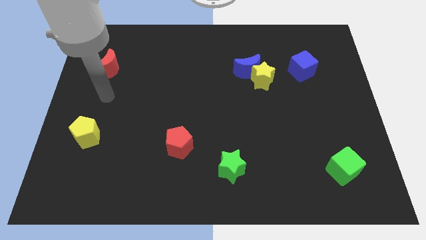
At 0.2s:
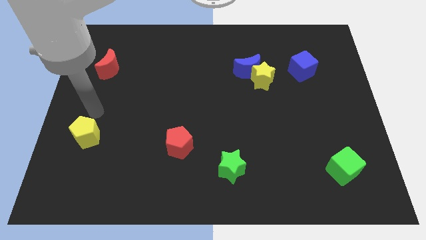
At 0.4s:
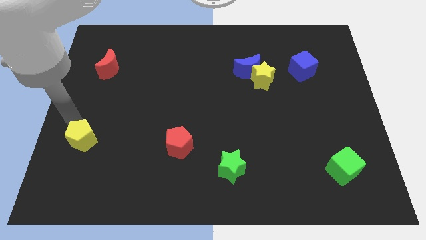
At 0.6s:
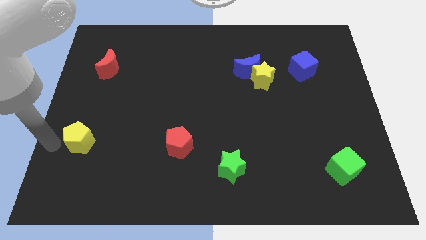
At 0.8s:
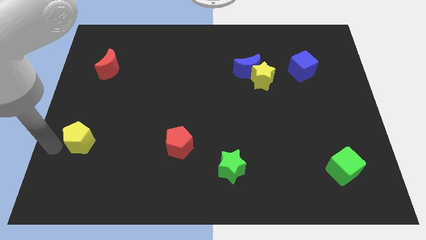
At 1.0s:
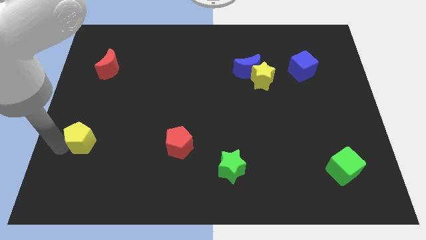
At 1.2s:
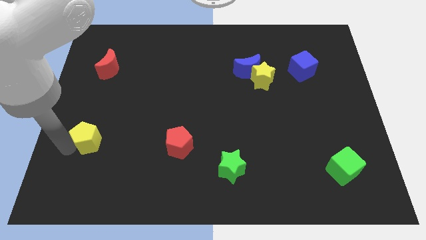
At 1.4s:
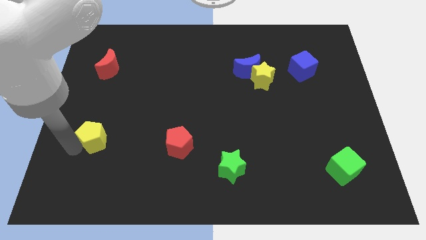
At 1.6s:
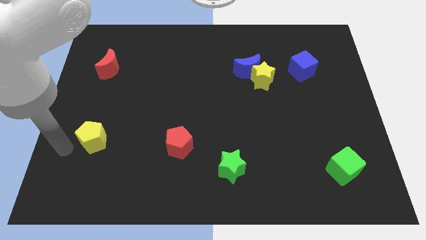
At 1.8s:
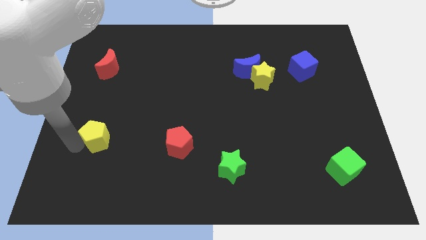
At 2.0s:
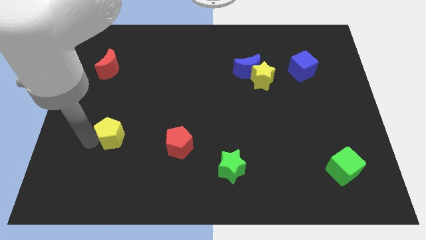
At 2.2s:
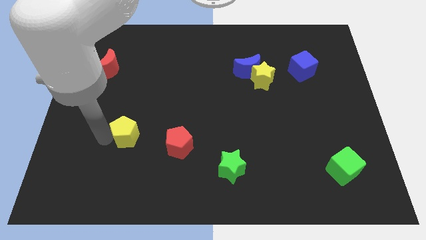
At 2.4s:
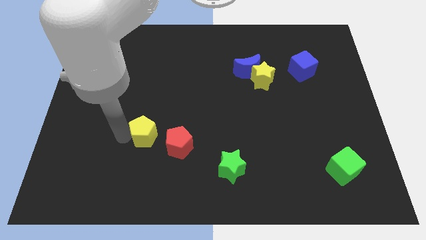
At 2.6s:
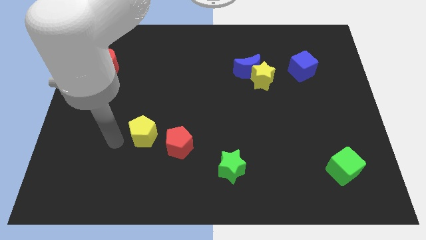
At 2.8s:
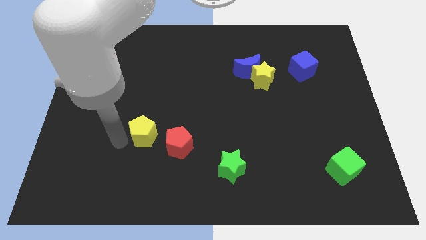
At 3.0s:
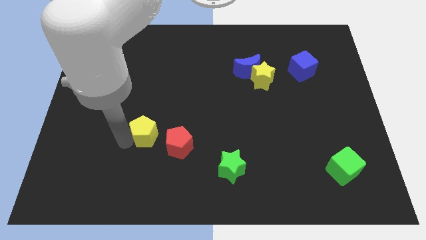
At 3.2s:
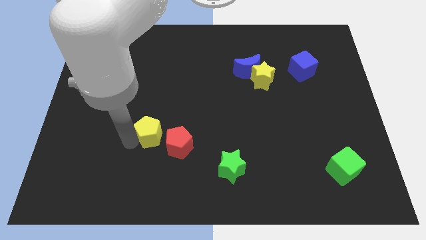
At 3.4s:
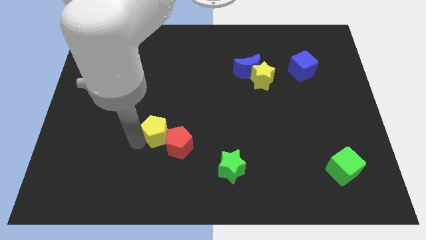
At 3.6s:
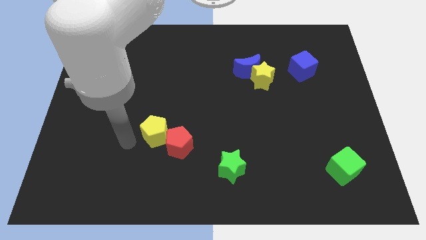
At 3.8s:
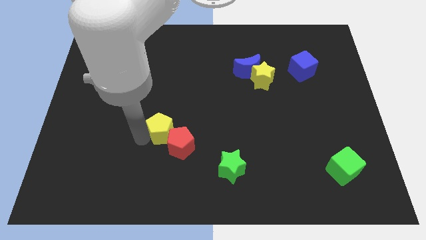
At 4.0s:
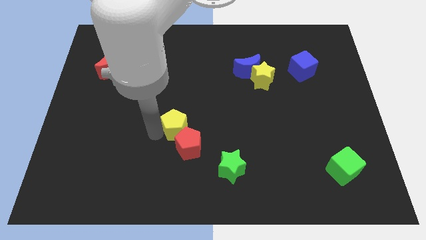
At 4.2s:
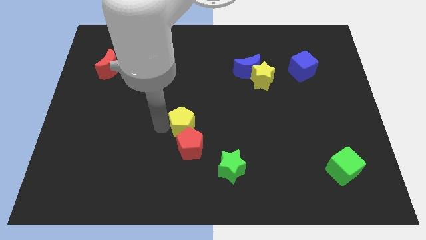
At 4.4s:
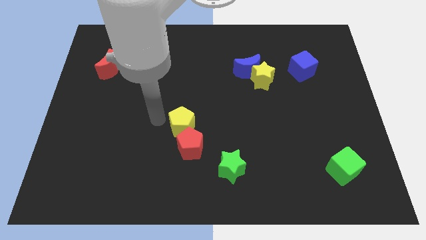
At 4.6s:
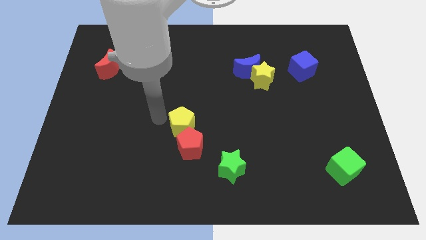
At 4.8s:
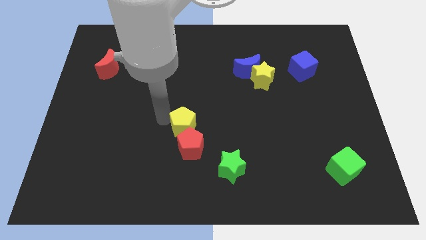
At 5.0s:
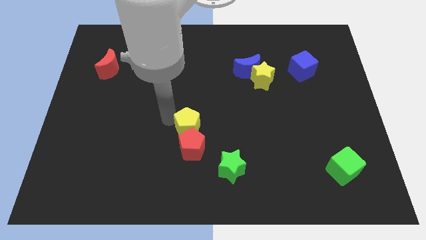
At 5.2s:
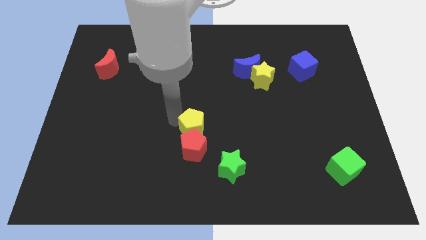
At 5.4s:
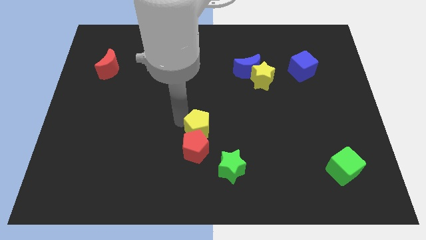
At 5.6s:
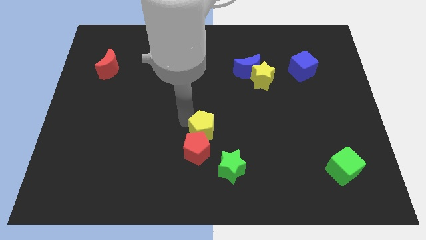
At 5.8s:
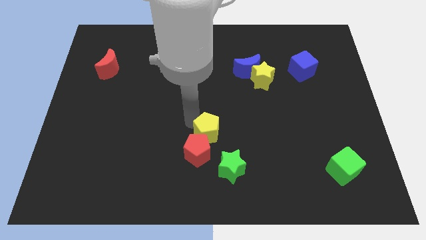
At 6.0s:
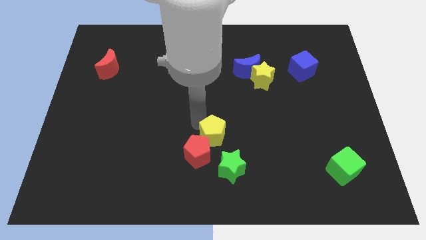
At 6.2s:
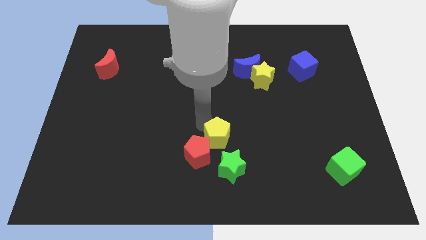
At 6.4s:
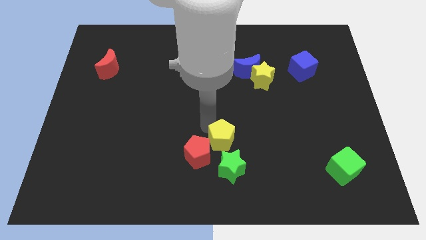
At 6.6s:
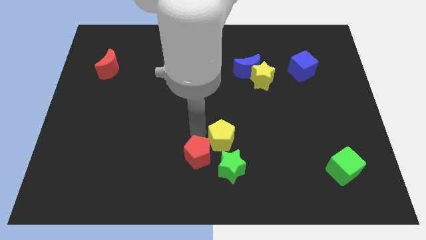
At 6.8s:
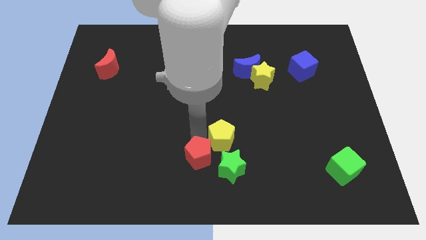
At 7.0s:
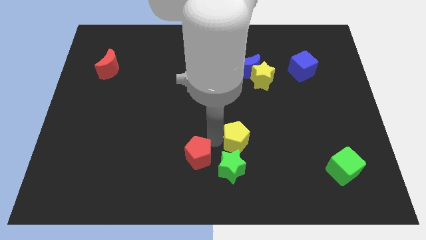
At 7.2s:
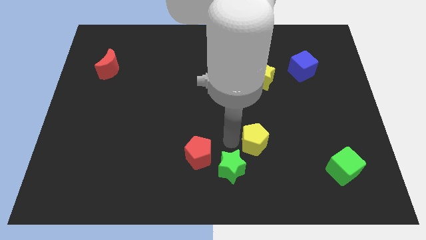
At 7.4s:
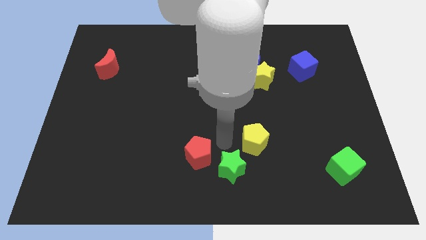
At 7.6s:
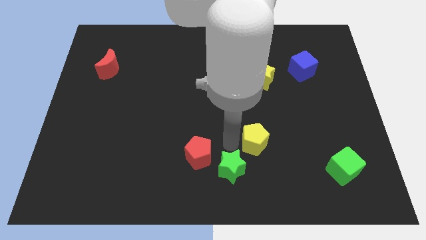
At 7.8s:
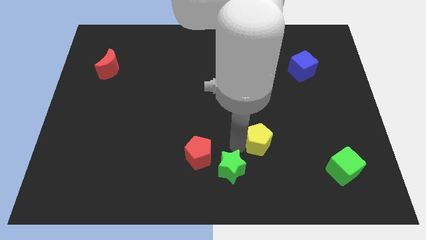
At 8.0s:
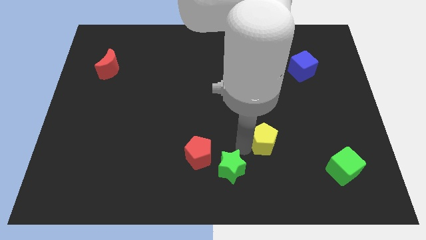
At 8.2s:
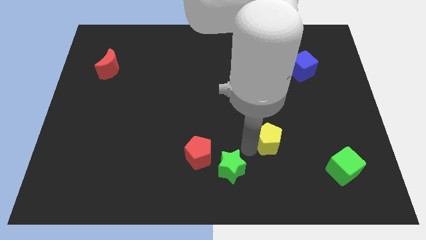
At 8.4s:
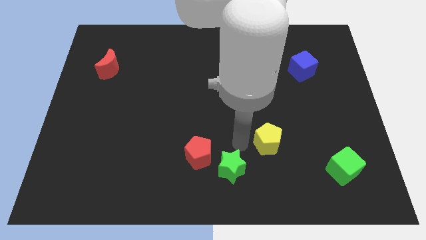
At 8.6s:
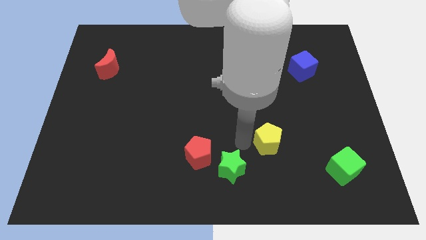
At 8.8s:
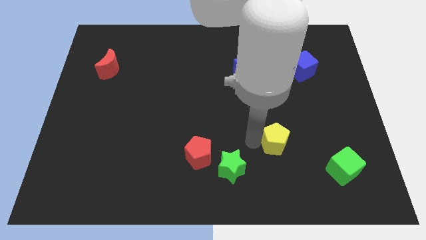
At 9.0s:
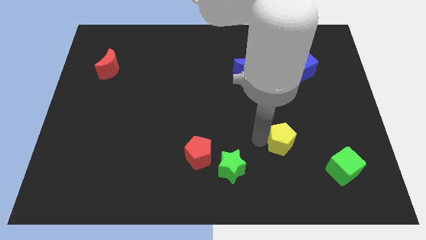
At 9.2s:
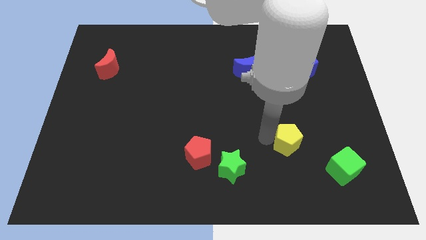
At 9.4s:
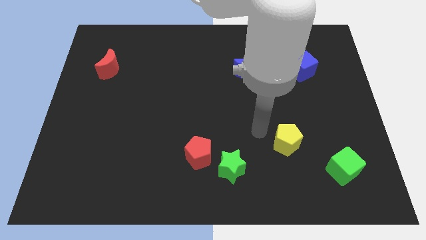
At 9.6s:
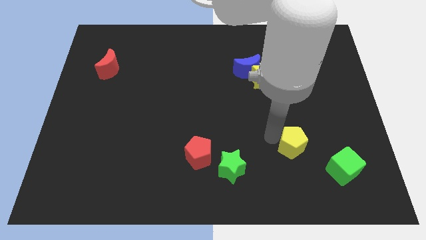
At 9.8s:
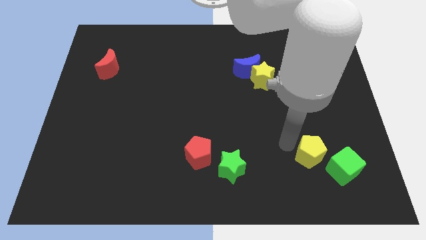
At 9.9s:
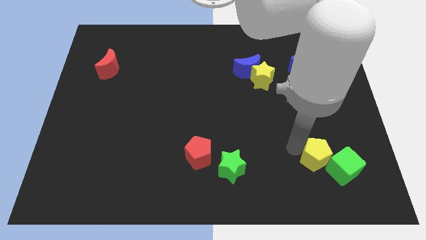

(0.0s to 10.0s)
slide the yellow pentagon close to the green cube
